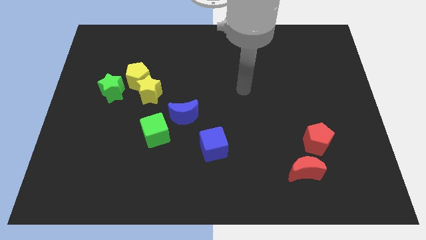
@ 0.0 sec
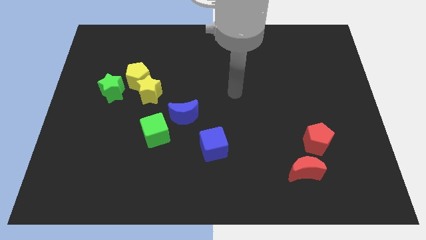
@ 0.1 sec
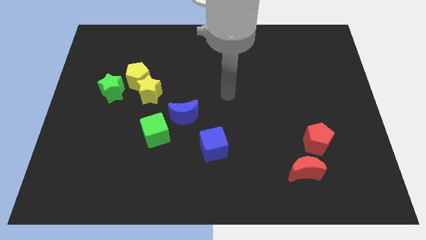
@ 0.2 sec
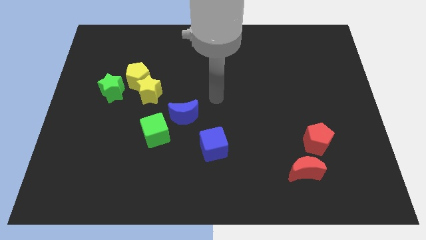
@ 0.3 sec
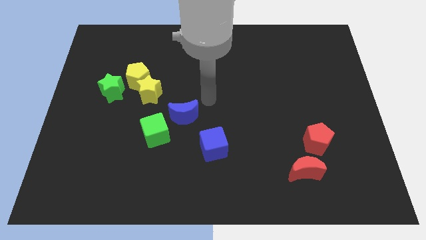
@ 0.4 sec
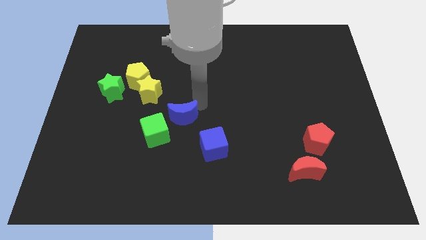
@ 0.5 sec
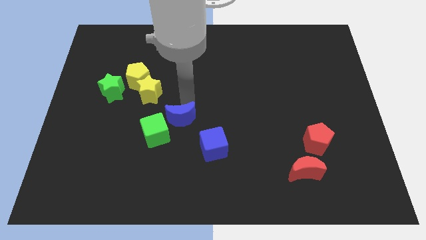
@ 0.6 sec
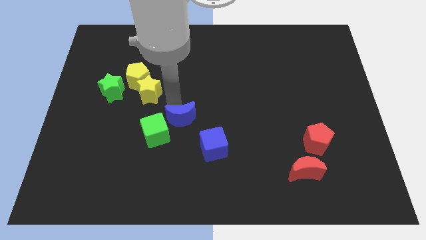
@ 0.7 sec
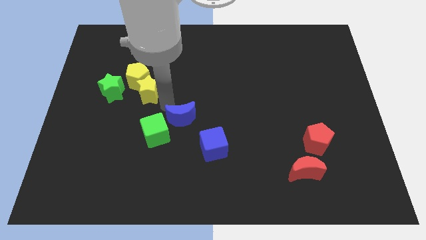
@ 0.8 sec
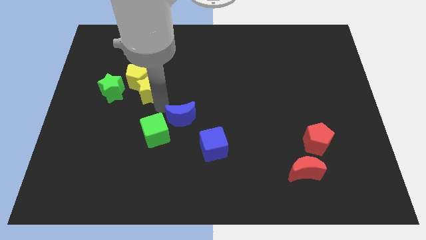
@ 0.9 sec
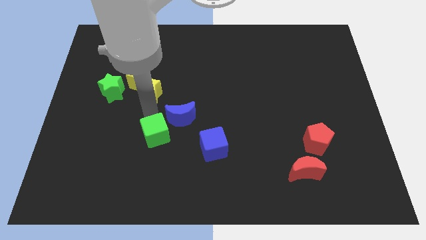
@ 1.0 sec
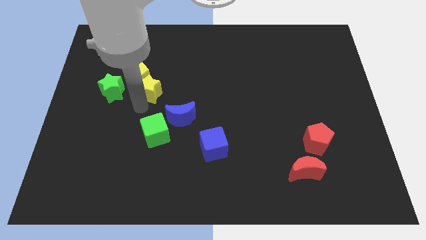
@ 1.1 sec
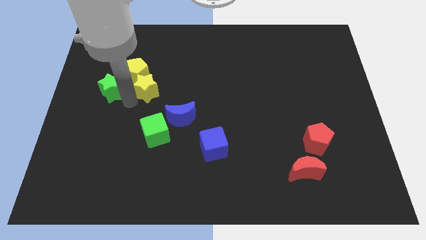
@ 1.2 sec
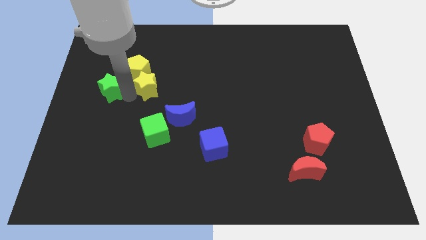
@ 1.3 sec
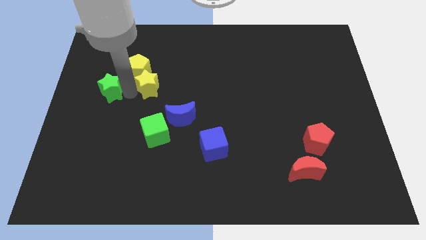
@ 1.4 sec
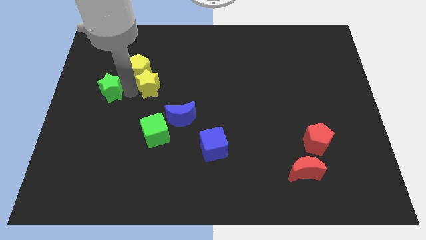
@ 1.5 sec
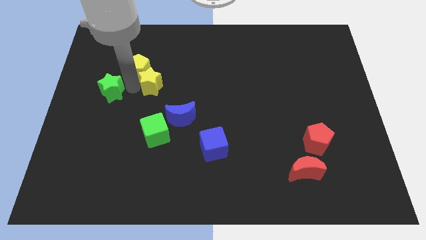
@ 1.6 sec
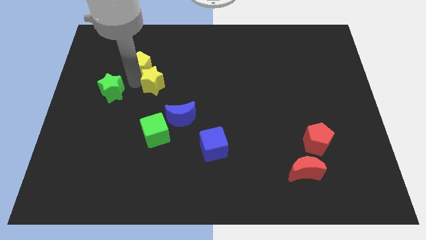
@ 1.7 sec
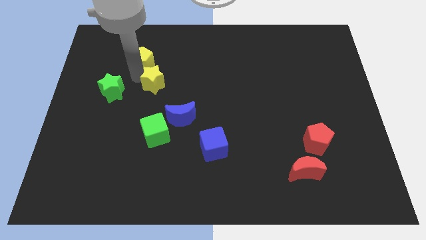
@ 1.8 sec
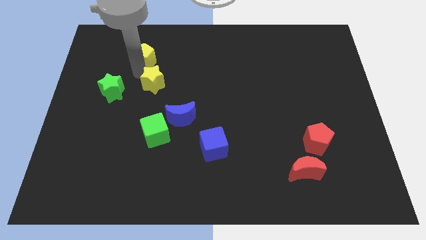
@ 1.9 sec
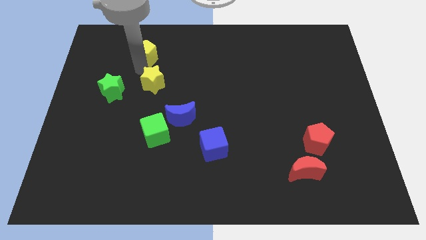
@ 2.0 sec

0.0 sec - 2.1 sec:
separate the yellow pentagon from the yellow star and green star

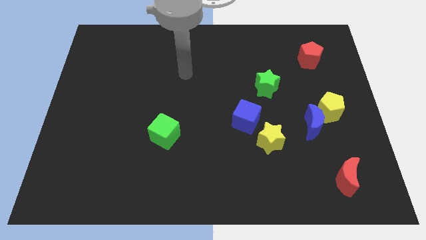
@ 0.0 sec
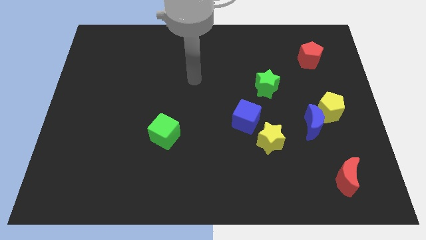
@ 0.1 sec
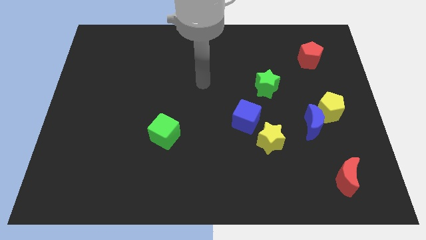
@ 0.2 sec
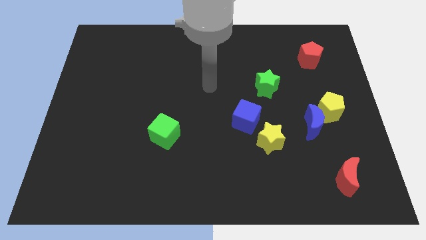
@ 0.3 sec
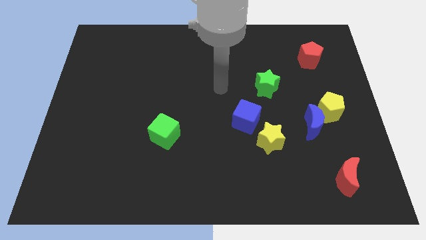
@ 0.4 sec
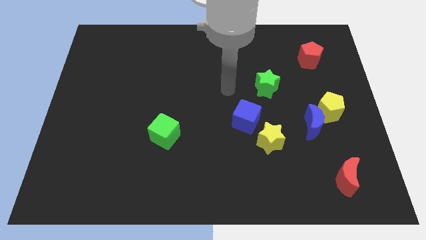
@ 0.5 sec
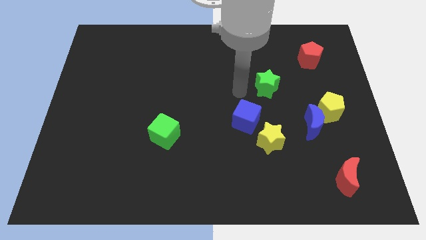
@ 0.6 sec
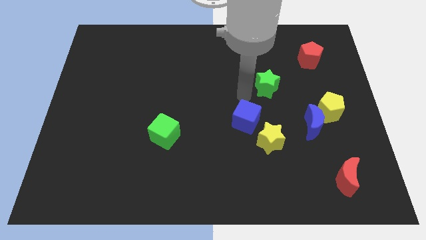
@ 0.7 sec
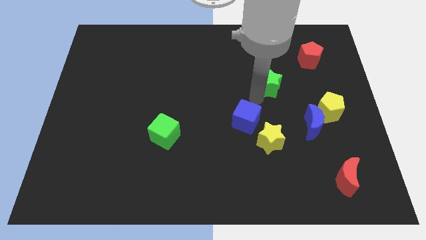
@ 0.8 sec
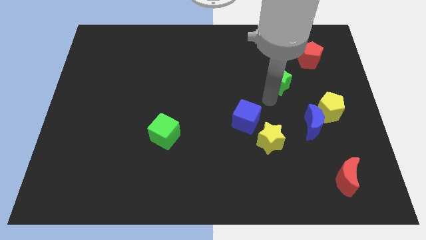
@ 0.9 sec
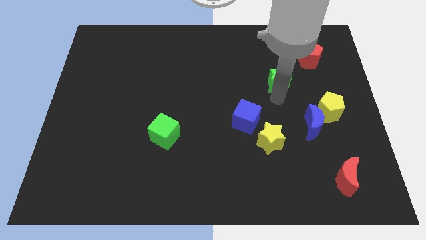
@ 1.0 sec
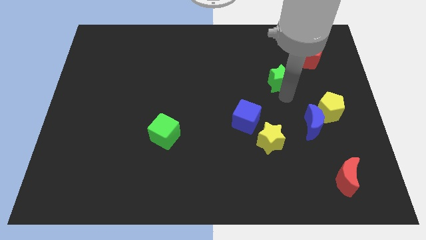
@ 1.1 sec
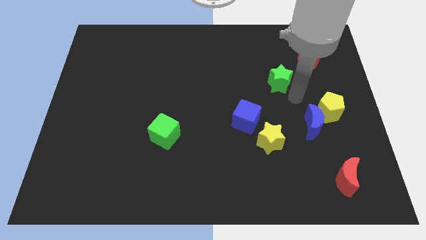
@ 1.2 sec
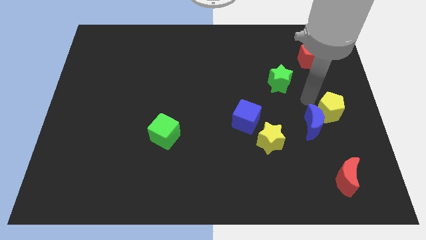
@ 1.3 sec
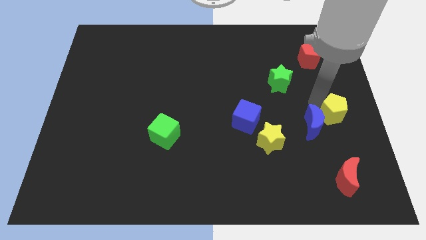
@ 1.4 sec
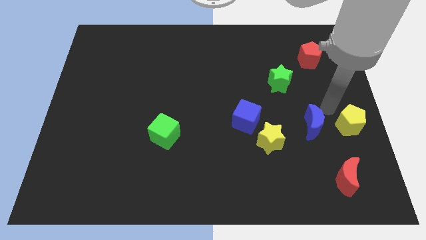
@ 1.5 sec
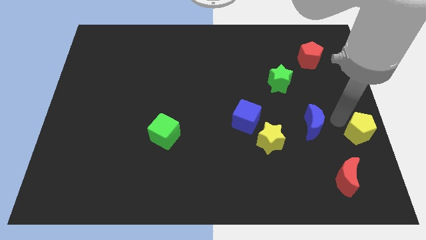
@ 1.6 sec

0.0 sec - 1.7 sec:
pull the blue moon apart from the yellow pentagon

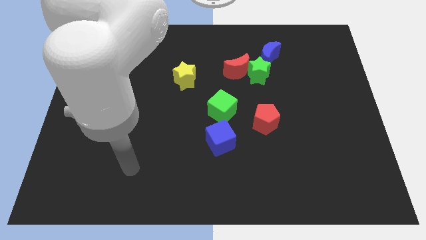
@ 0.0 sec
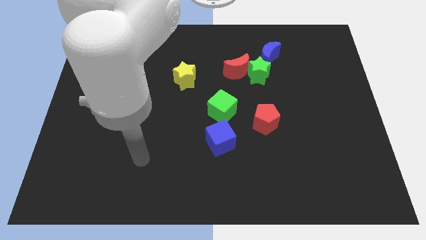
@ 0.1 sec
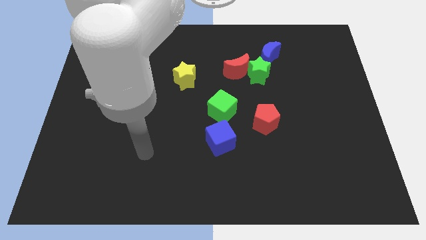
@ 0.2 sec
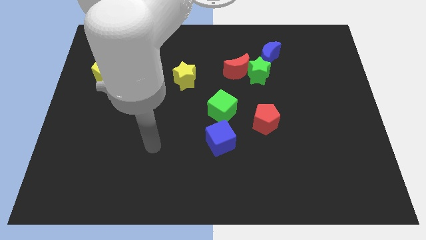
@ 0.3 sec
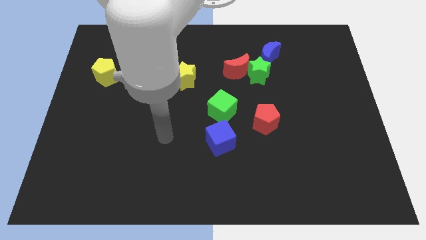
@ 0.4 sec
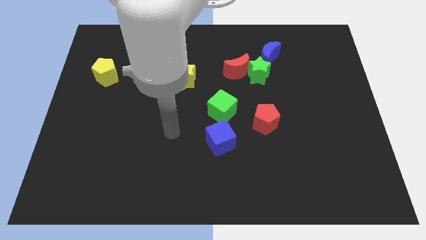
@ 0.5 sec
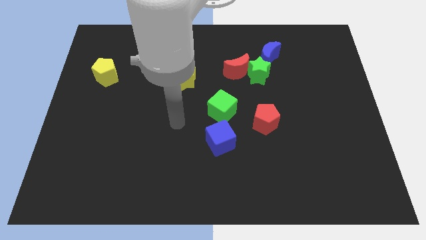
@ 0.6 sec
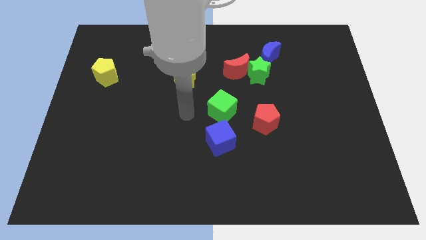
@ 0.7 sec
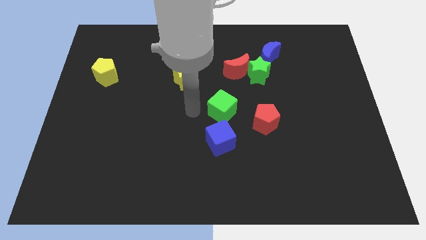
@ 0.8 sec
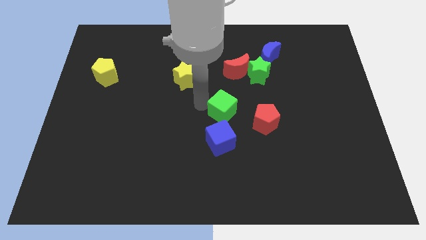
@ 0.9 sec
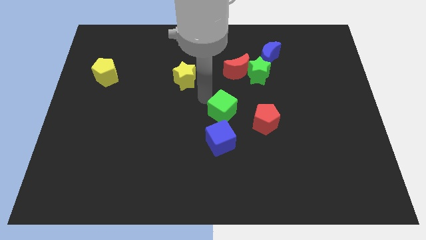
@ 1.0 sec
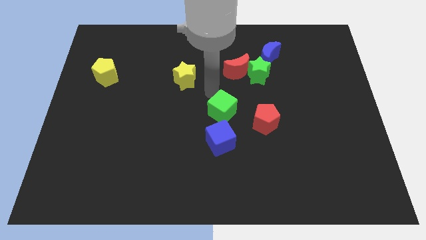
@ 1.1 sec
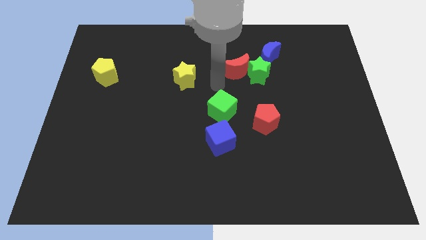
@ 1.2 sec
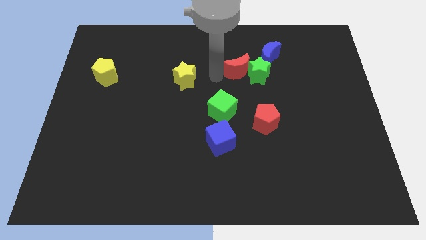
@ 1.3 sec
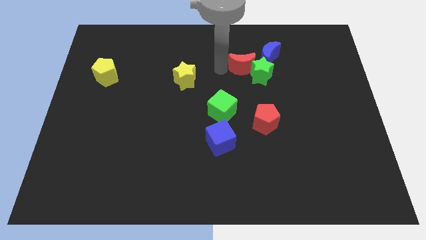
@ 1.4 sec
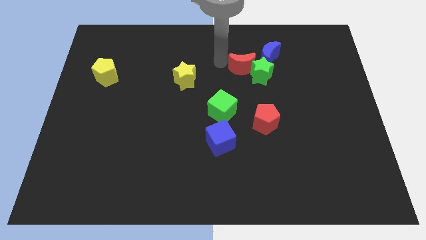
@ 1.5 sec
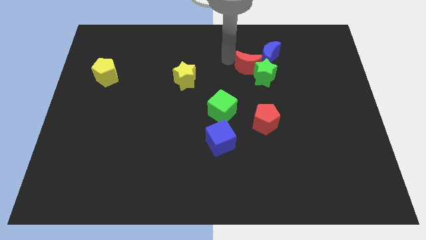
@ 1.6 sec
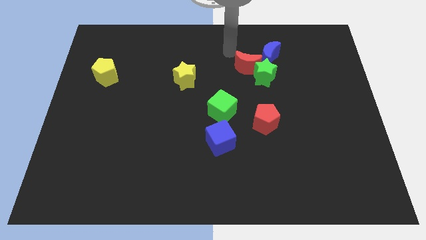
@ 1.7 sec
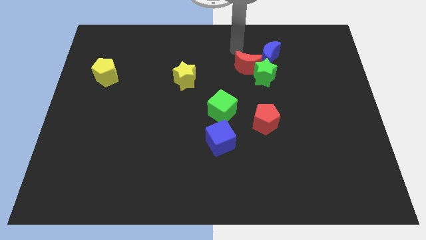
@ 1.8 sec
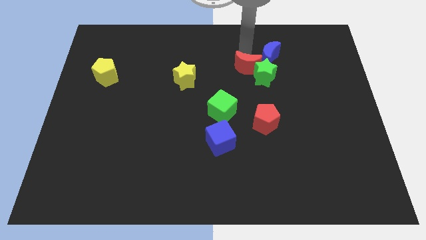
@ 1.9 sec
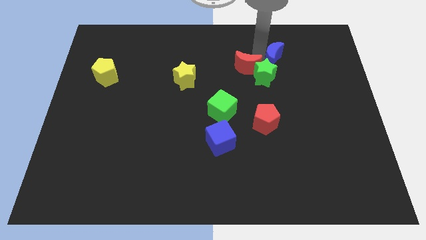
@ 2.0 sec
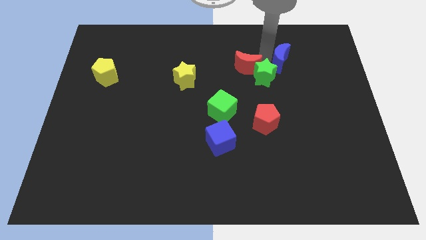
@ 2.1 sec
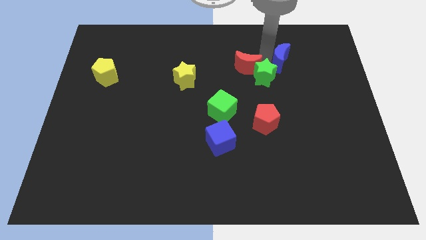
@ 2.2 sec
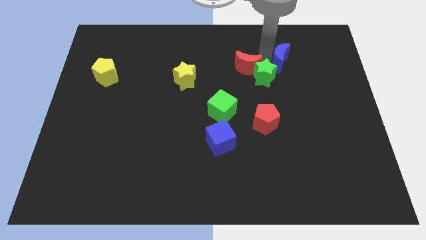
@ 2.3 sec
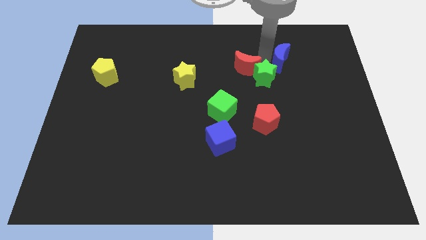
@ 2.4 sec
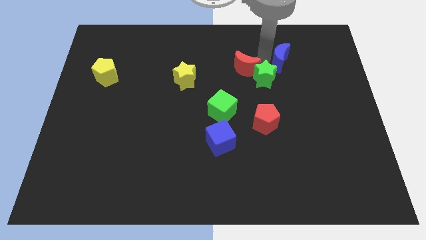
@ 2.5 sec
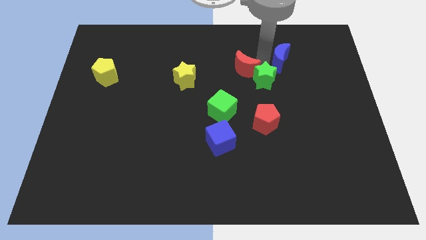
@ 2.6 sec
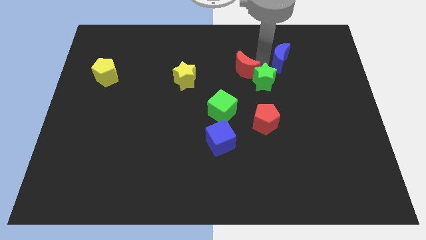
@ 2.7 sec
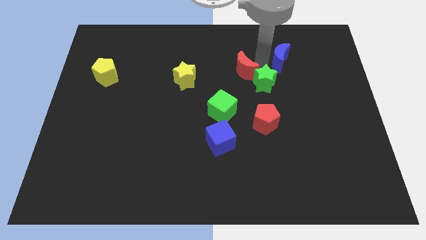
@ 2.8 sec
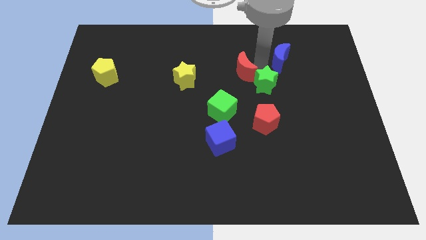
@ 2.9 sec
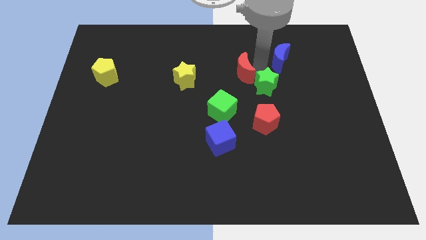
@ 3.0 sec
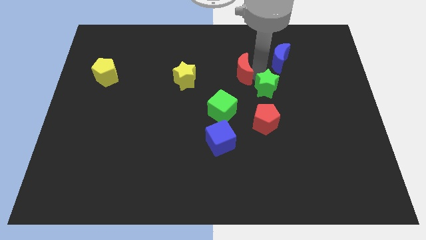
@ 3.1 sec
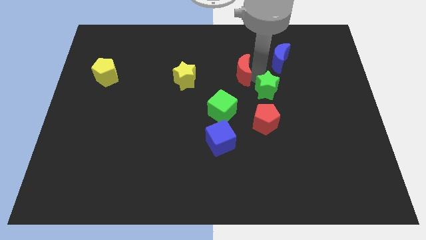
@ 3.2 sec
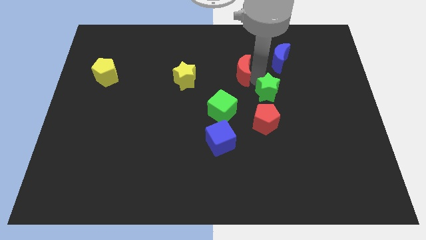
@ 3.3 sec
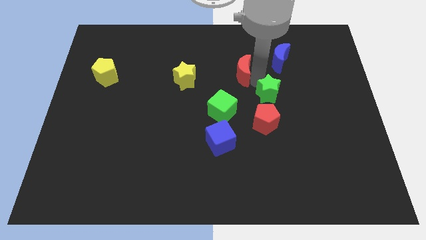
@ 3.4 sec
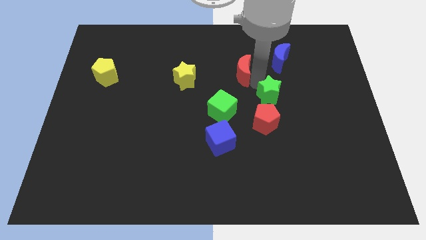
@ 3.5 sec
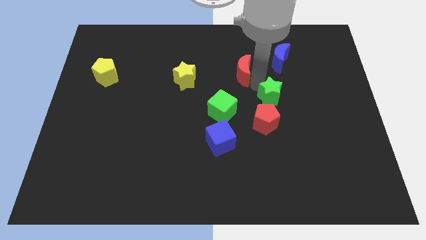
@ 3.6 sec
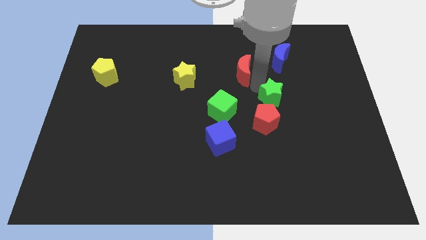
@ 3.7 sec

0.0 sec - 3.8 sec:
separate the green star from the red moon and blue moon

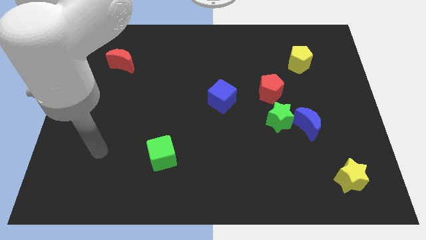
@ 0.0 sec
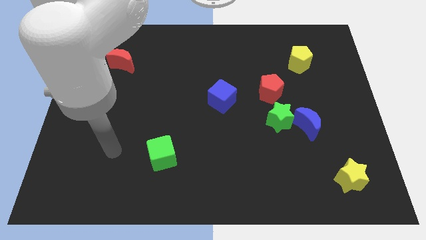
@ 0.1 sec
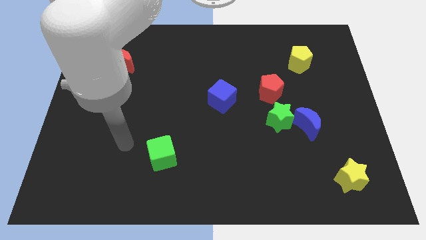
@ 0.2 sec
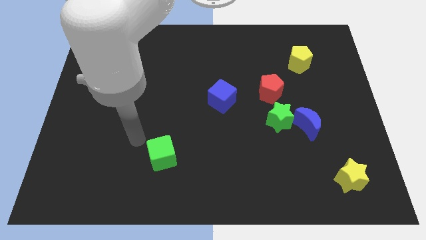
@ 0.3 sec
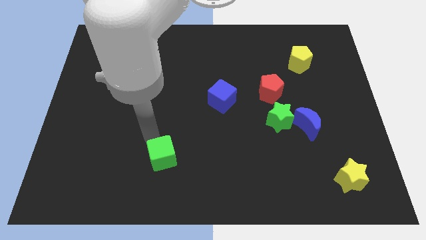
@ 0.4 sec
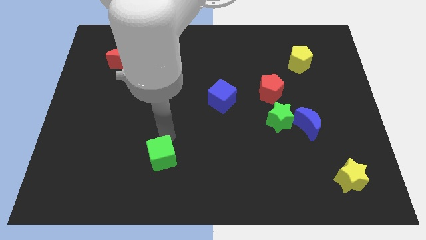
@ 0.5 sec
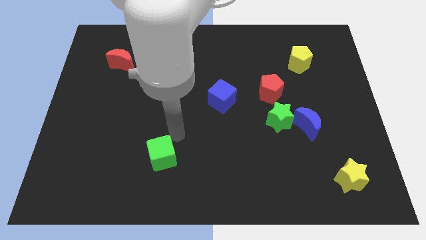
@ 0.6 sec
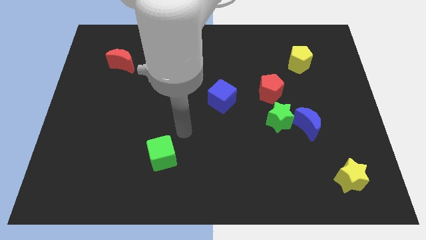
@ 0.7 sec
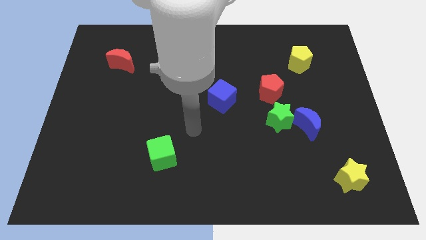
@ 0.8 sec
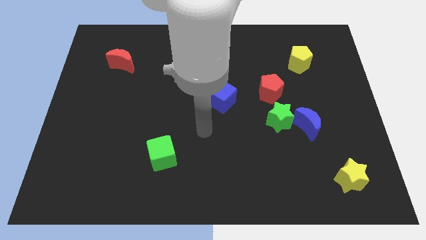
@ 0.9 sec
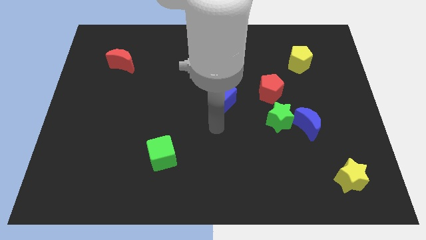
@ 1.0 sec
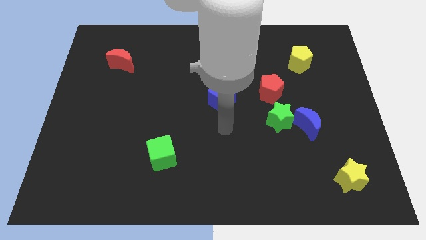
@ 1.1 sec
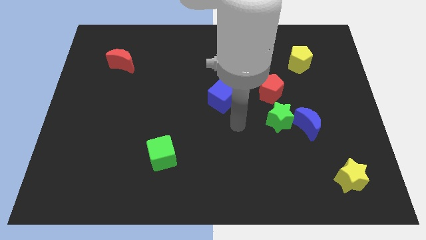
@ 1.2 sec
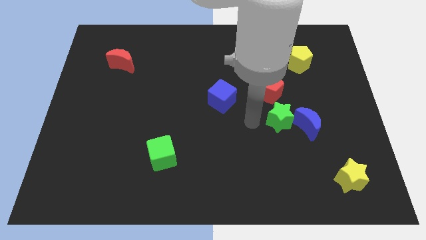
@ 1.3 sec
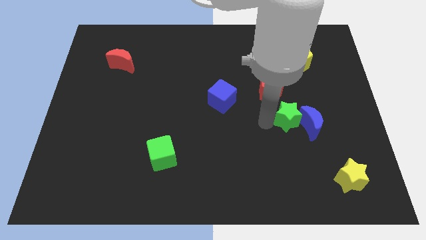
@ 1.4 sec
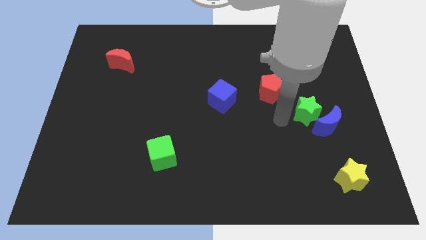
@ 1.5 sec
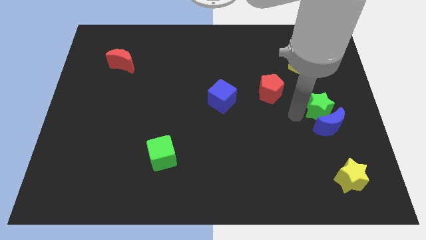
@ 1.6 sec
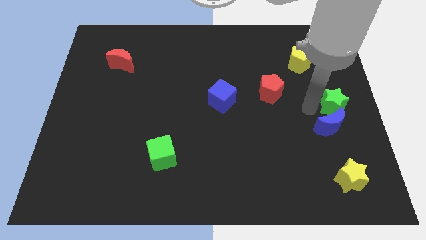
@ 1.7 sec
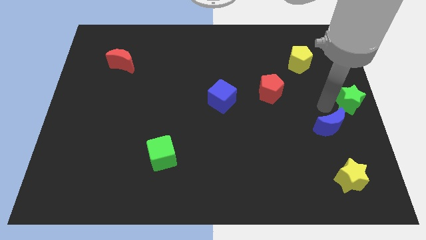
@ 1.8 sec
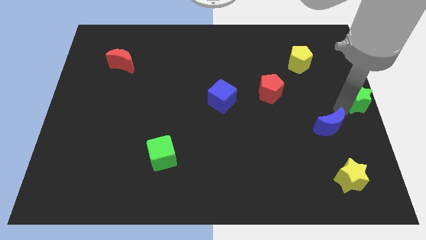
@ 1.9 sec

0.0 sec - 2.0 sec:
pull the blue moon apart from the green star
